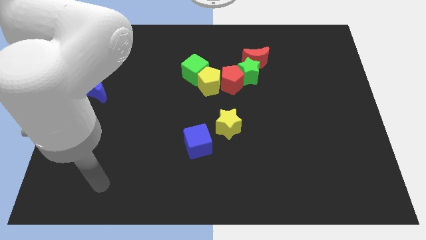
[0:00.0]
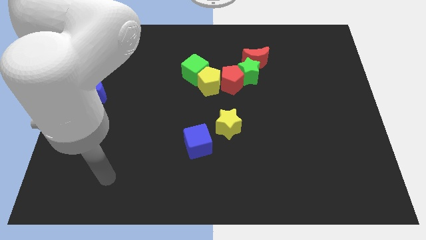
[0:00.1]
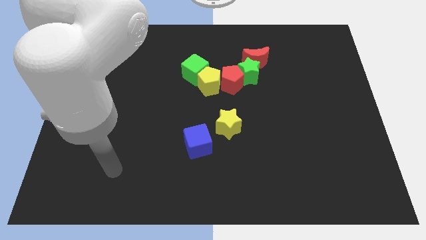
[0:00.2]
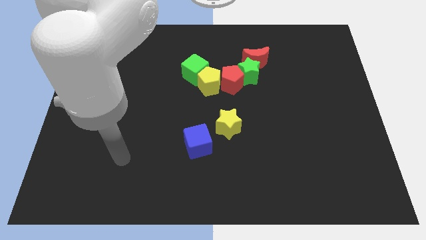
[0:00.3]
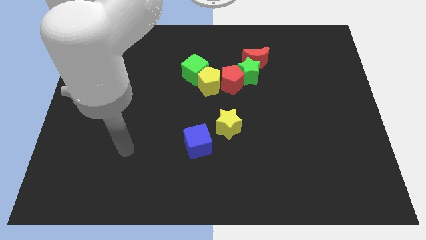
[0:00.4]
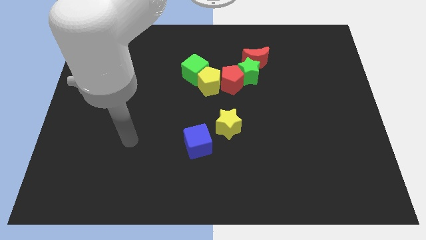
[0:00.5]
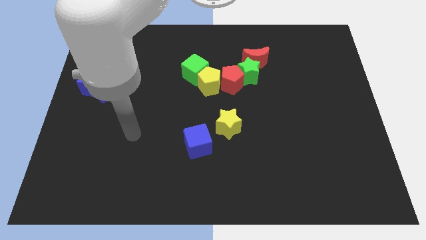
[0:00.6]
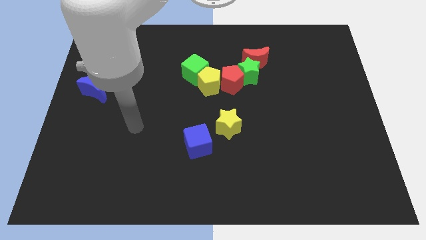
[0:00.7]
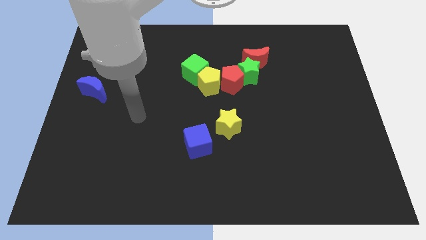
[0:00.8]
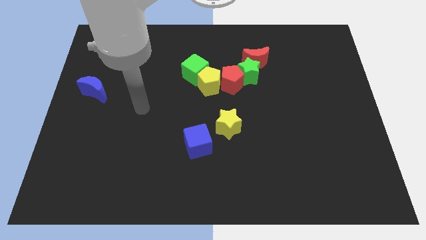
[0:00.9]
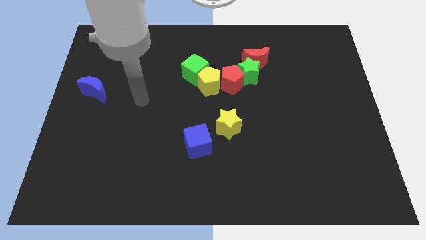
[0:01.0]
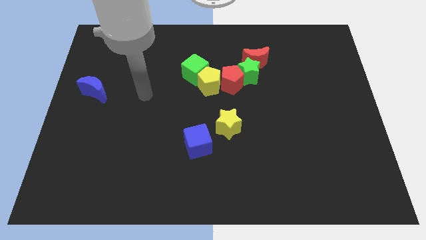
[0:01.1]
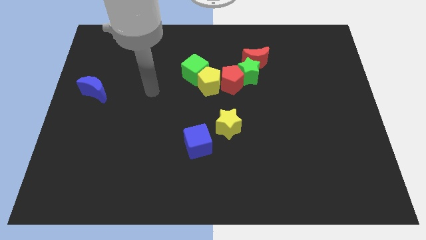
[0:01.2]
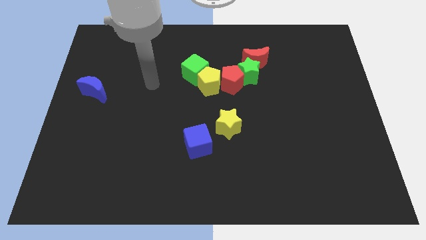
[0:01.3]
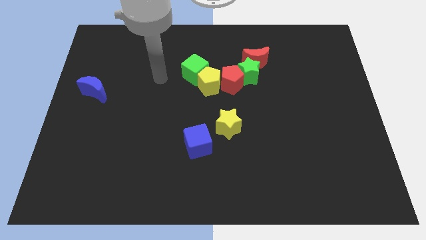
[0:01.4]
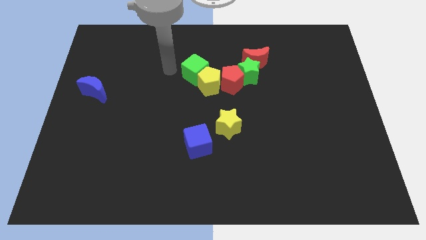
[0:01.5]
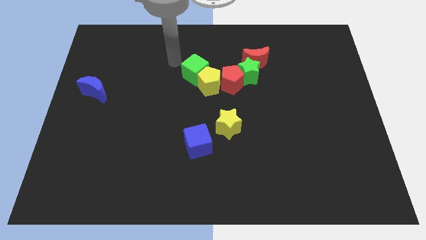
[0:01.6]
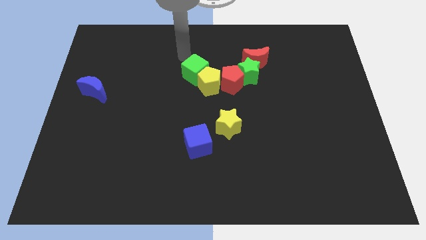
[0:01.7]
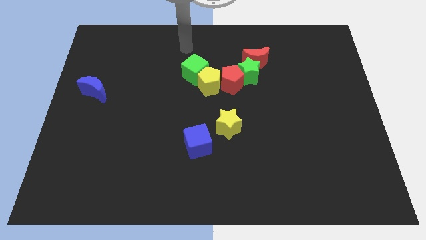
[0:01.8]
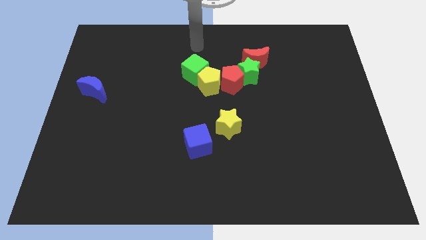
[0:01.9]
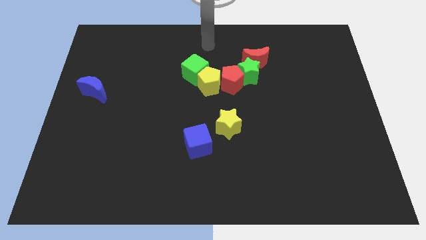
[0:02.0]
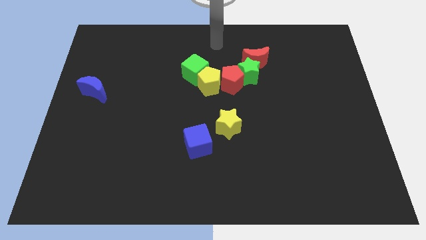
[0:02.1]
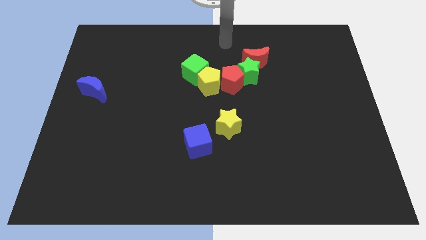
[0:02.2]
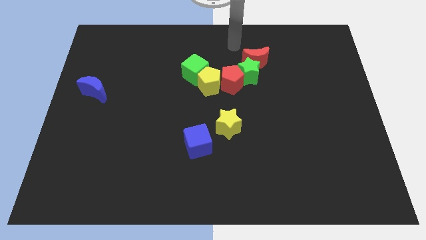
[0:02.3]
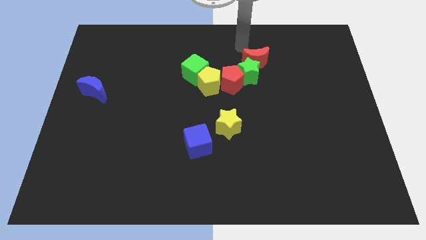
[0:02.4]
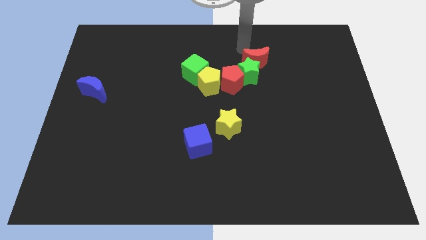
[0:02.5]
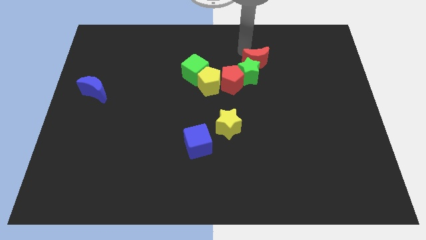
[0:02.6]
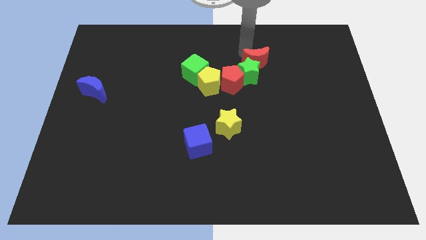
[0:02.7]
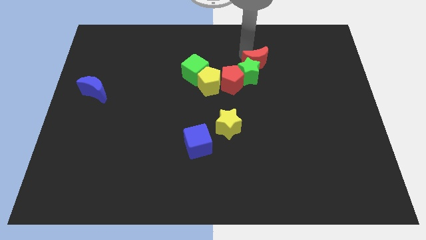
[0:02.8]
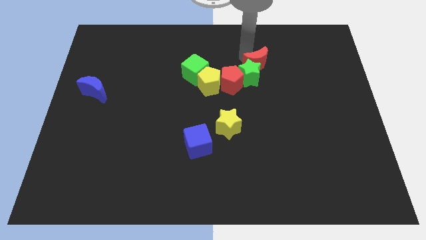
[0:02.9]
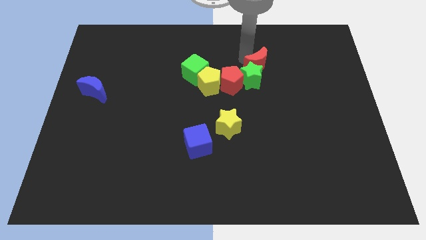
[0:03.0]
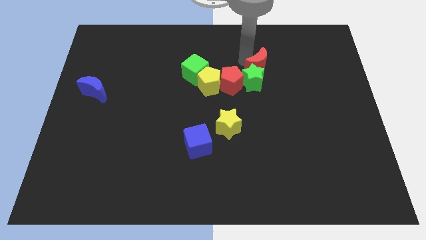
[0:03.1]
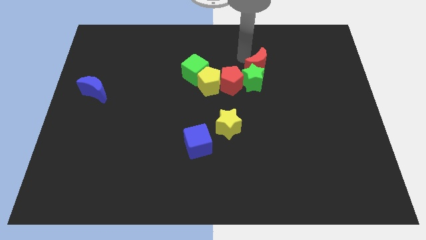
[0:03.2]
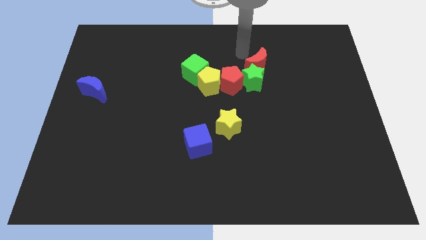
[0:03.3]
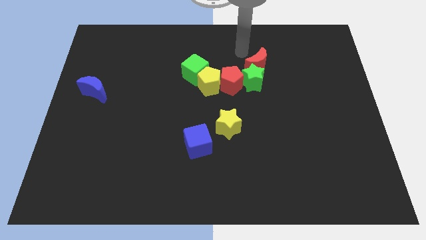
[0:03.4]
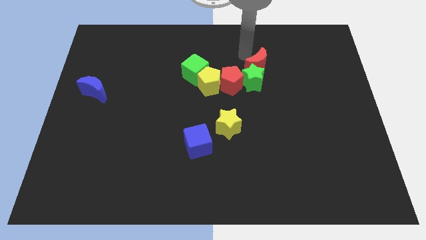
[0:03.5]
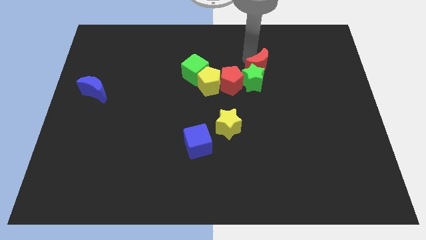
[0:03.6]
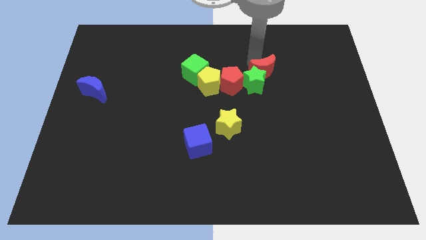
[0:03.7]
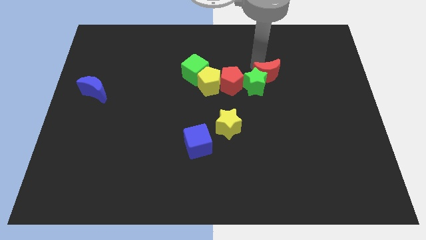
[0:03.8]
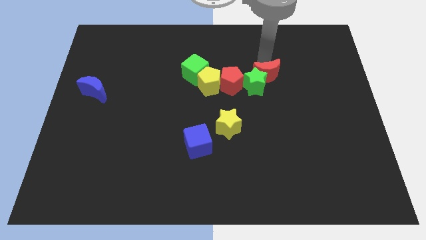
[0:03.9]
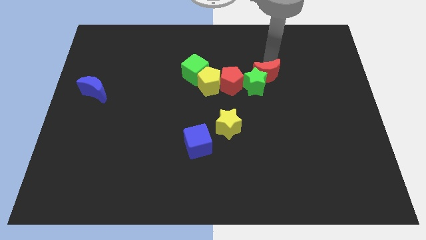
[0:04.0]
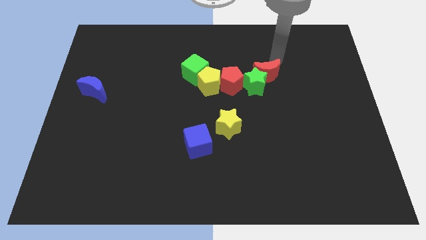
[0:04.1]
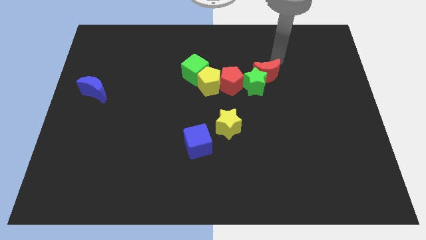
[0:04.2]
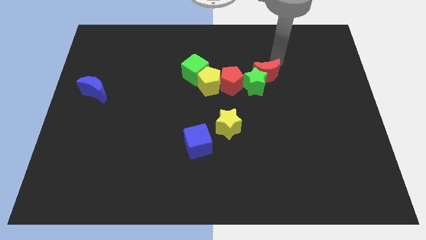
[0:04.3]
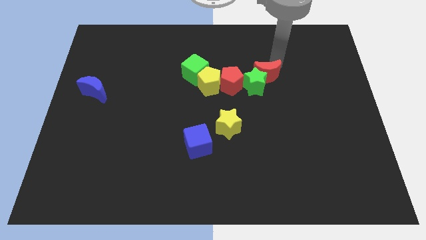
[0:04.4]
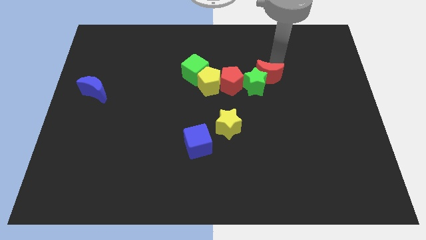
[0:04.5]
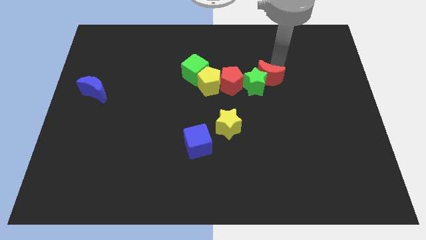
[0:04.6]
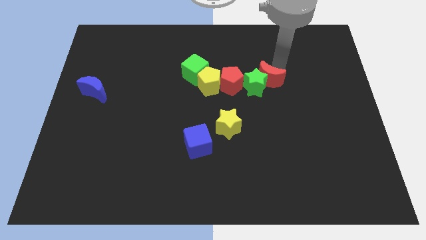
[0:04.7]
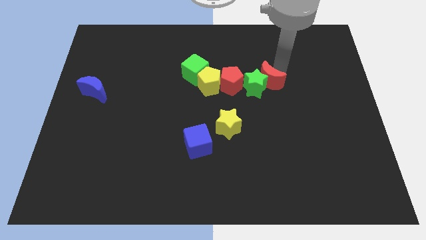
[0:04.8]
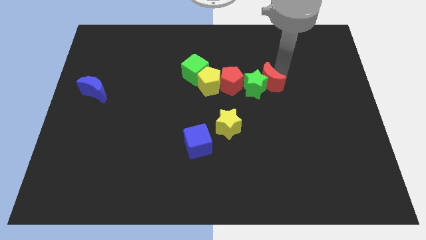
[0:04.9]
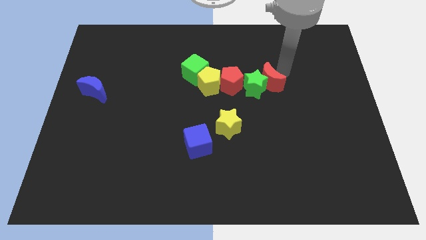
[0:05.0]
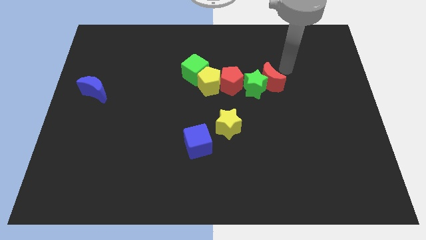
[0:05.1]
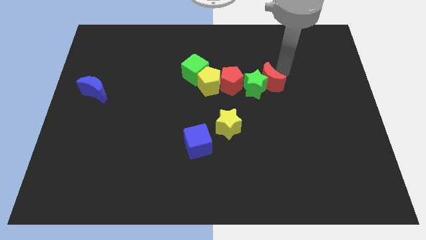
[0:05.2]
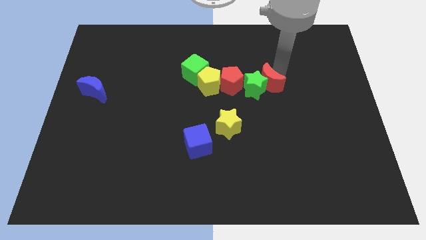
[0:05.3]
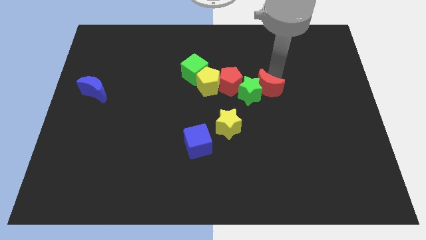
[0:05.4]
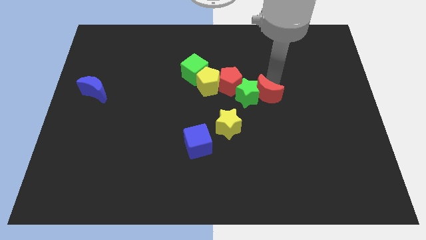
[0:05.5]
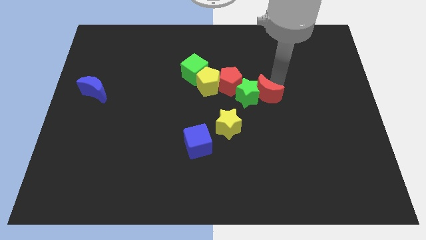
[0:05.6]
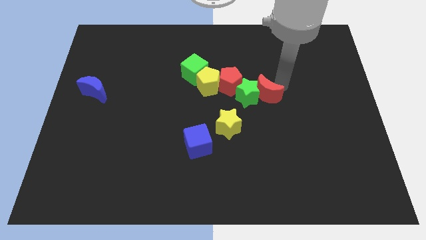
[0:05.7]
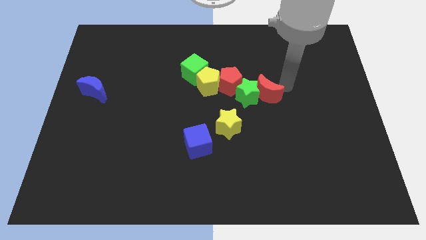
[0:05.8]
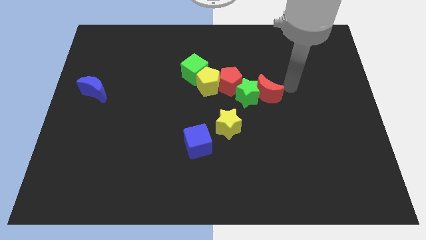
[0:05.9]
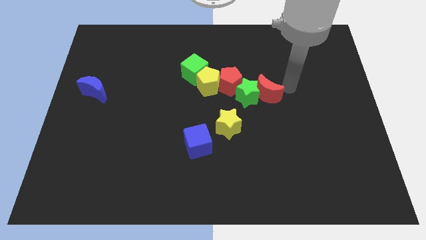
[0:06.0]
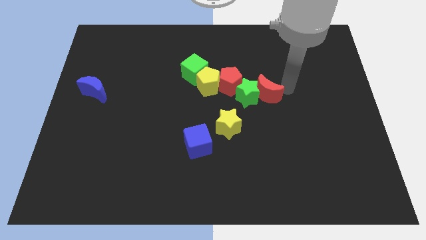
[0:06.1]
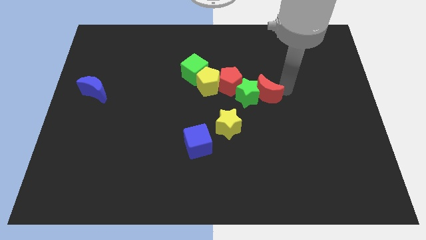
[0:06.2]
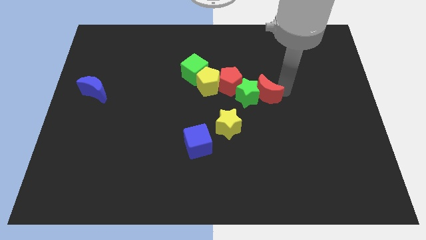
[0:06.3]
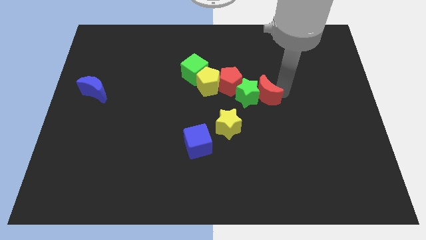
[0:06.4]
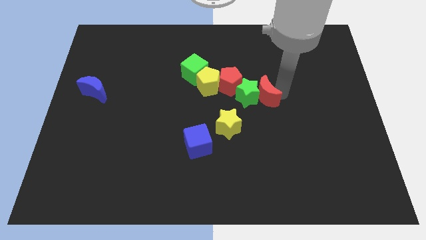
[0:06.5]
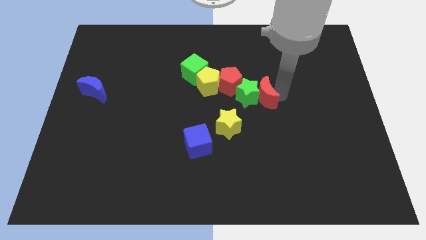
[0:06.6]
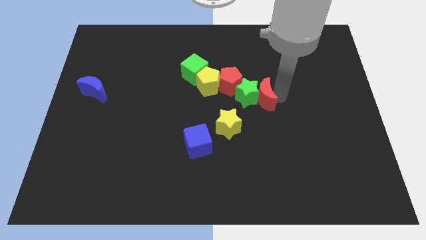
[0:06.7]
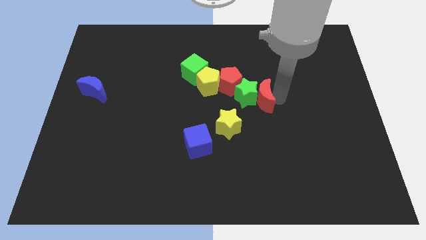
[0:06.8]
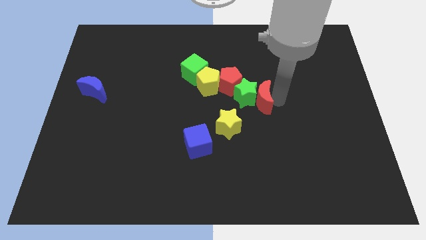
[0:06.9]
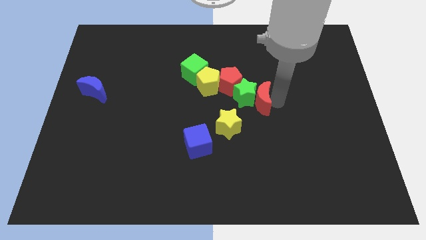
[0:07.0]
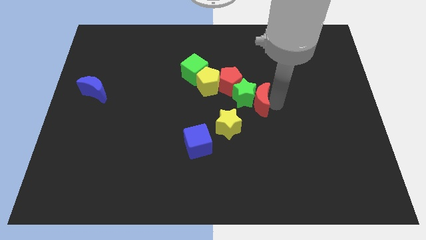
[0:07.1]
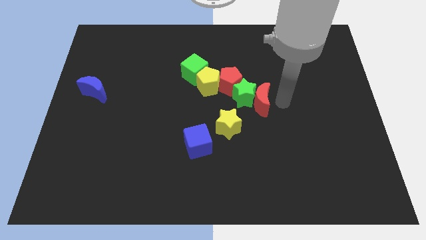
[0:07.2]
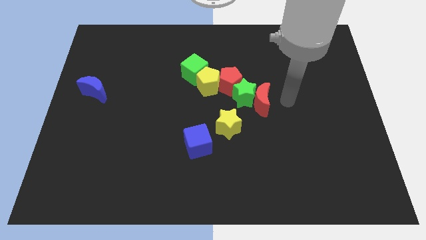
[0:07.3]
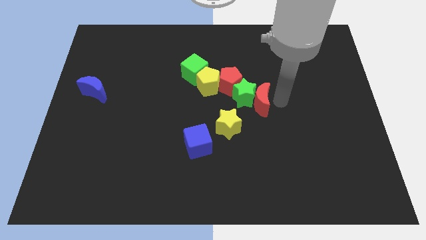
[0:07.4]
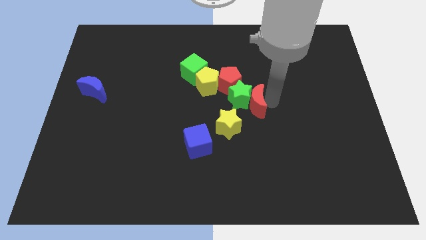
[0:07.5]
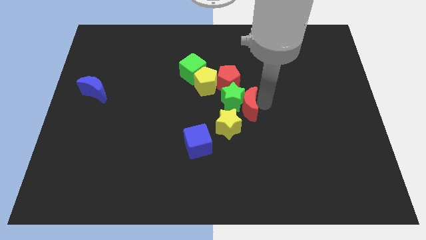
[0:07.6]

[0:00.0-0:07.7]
slide the red moon down and left a little bit

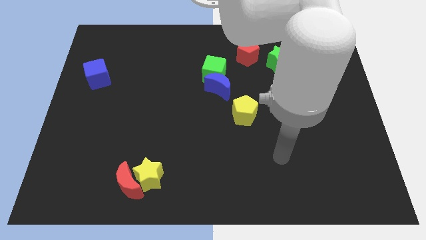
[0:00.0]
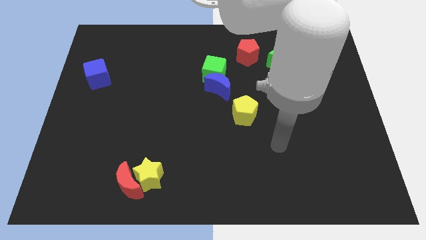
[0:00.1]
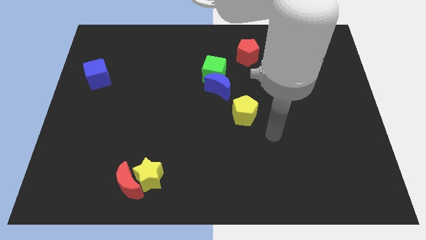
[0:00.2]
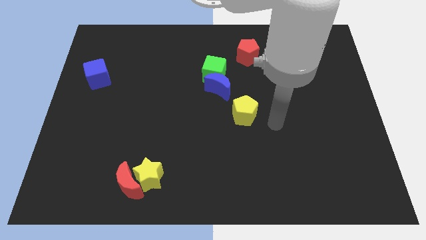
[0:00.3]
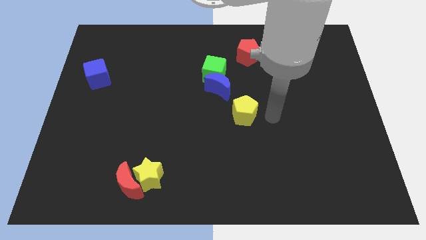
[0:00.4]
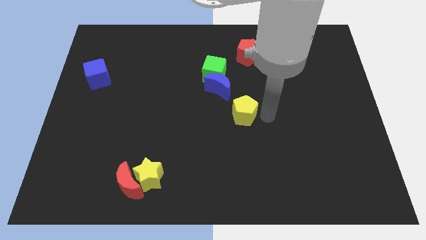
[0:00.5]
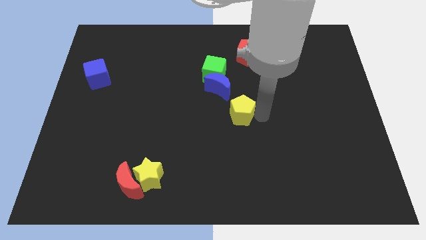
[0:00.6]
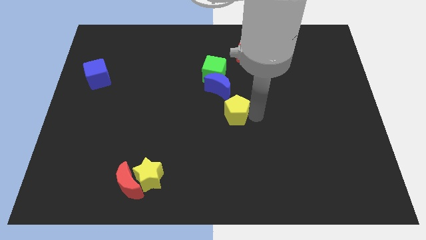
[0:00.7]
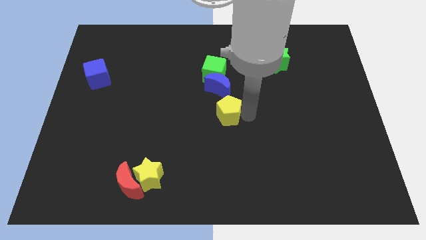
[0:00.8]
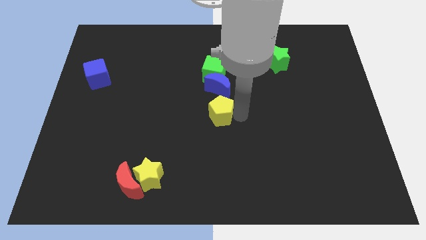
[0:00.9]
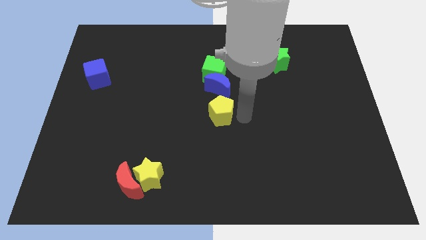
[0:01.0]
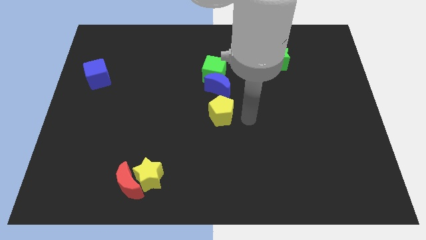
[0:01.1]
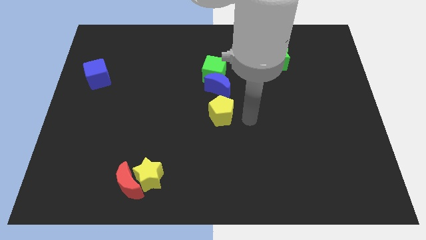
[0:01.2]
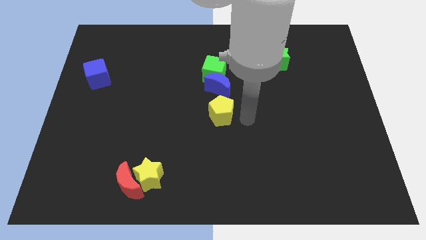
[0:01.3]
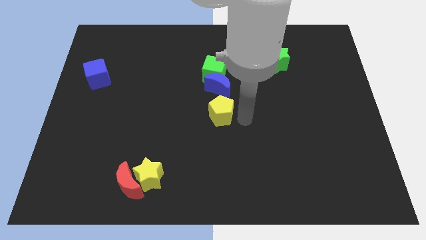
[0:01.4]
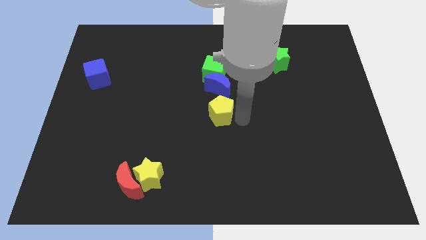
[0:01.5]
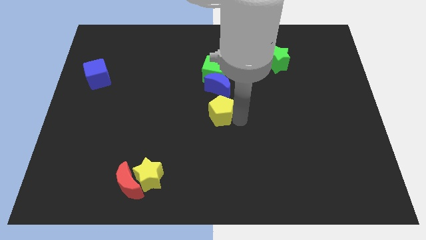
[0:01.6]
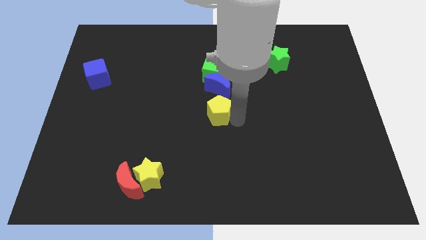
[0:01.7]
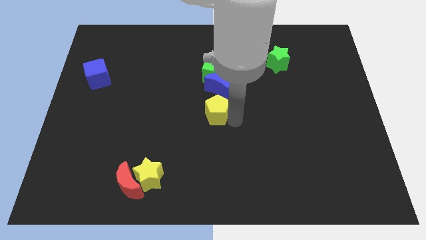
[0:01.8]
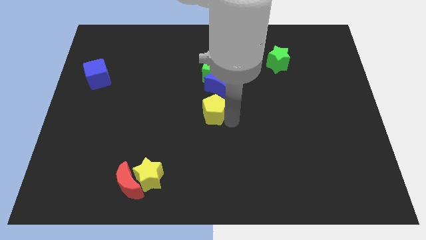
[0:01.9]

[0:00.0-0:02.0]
slightly move the yellow pentagon left
